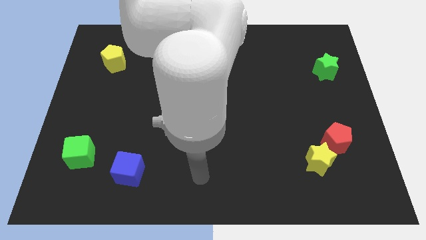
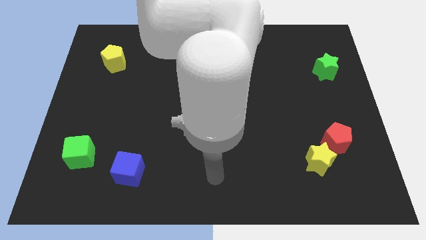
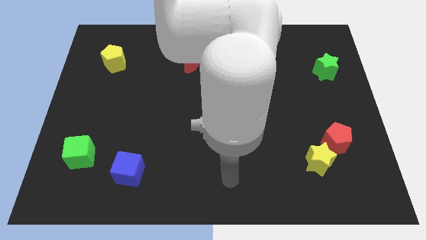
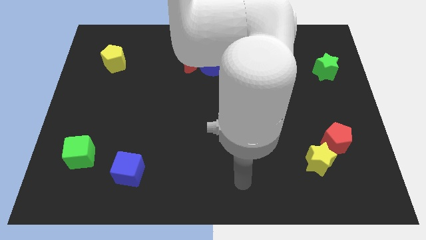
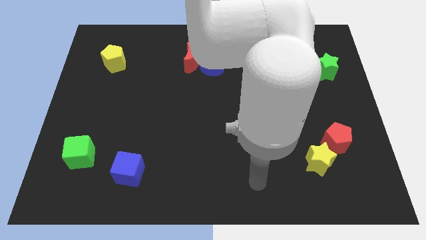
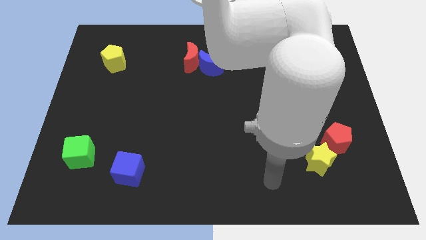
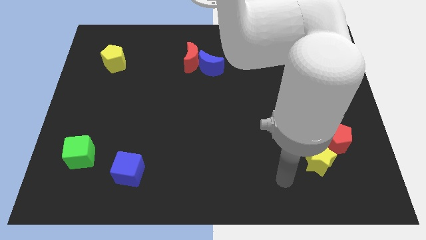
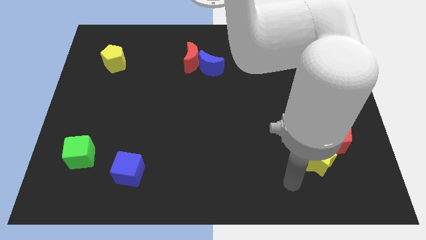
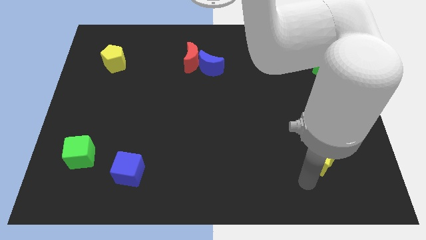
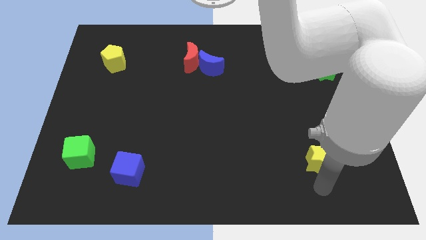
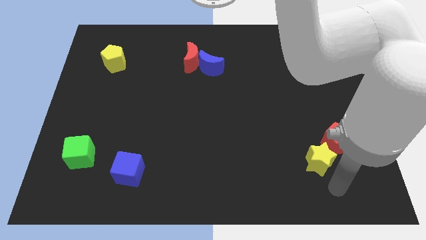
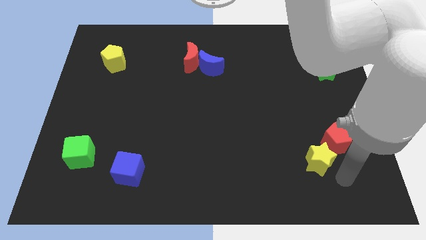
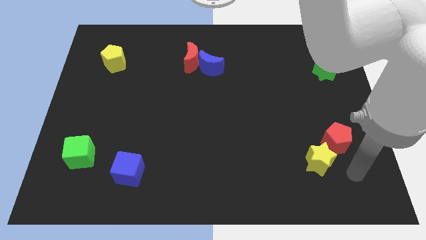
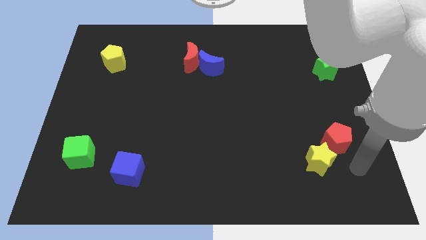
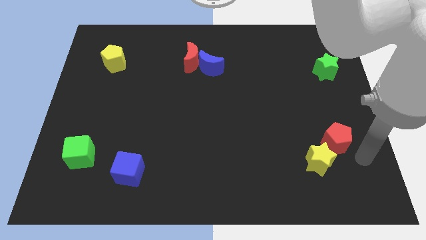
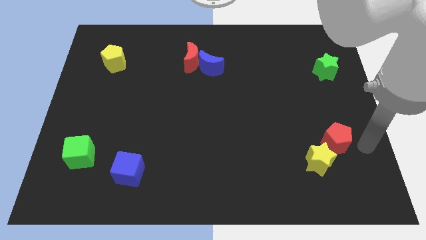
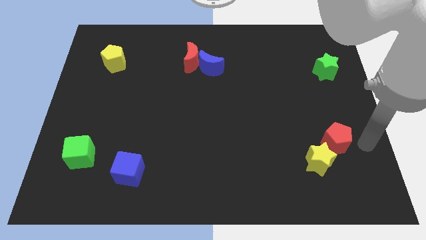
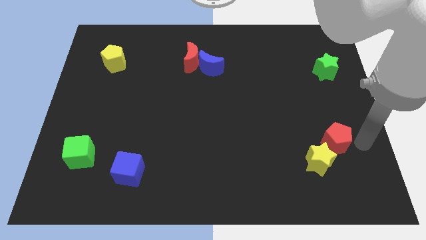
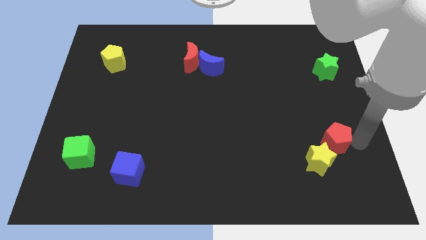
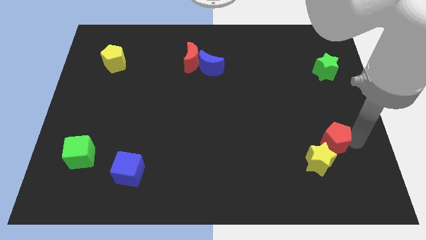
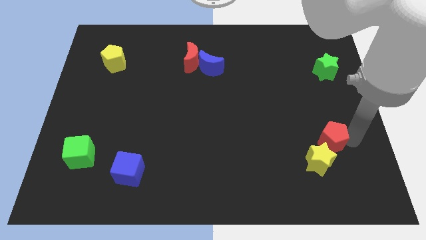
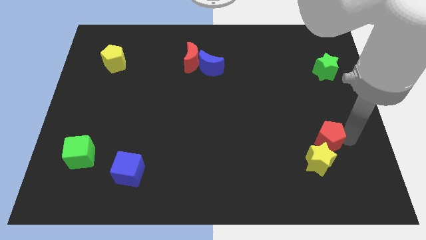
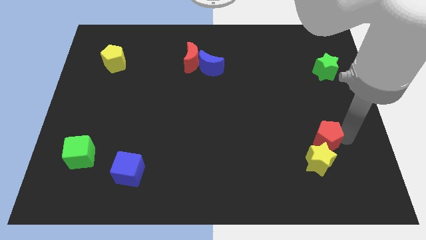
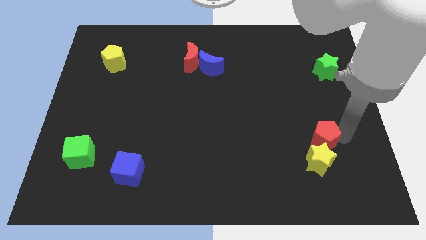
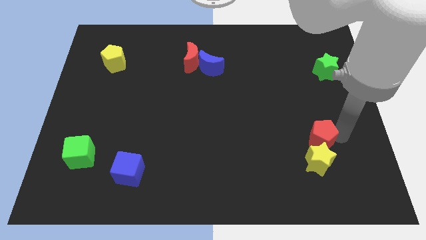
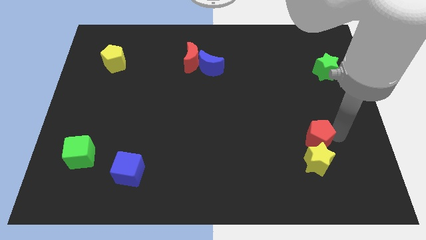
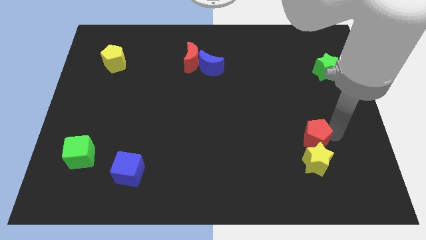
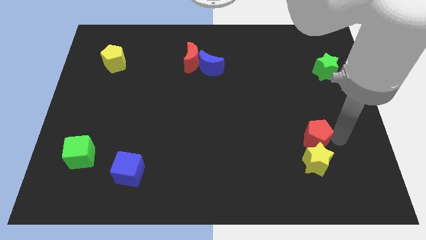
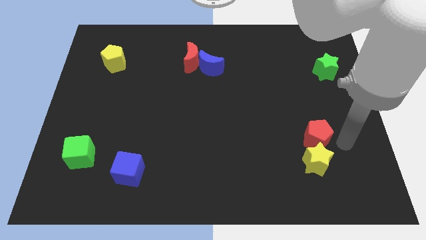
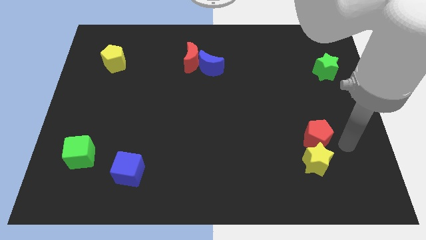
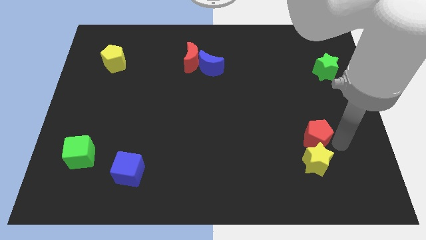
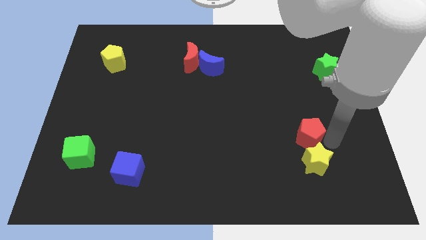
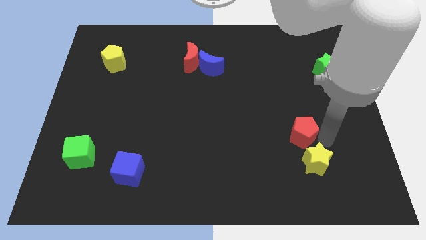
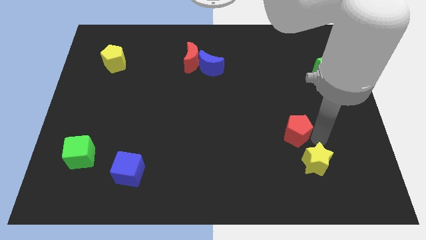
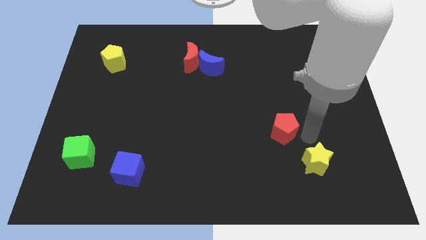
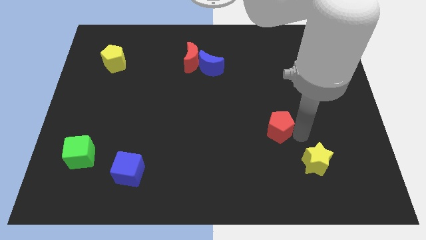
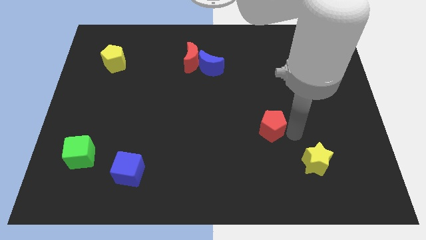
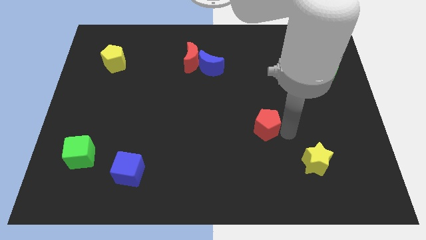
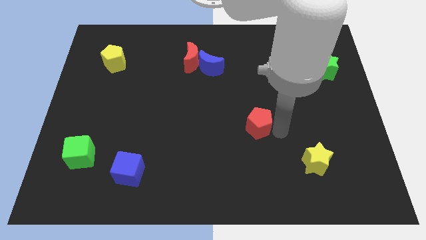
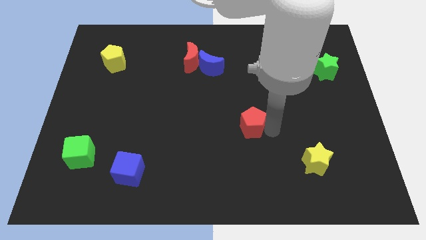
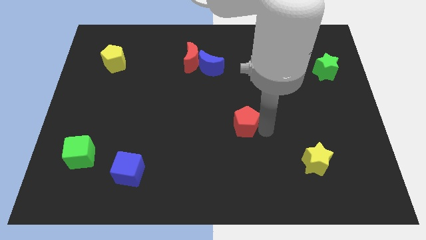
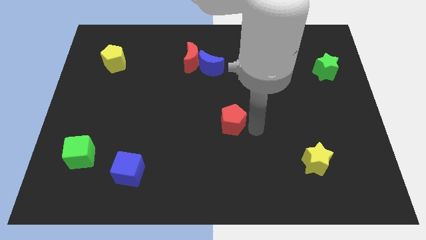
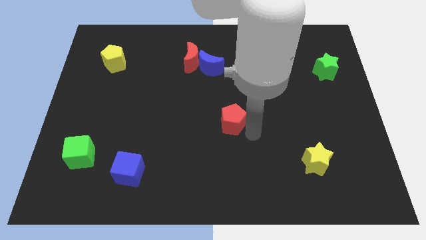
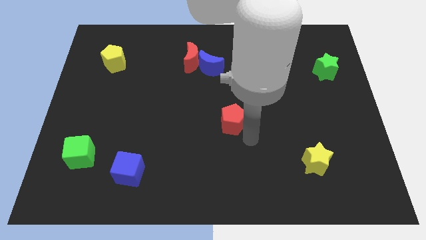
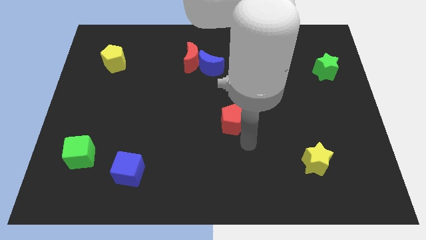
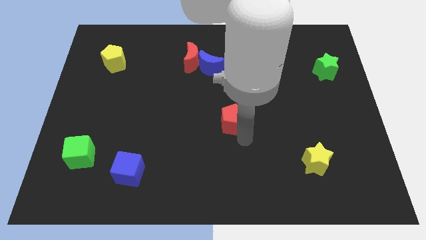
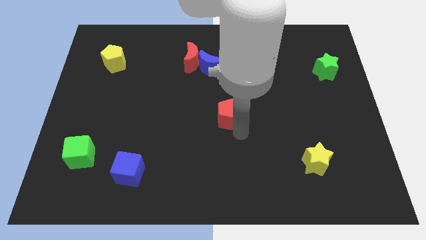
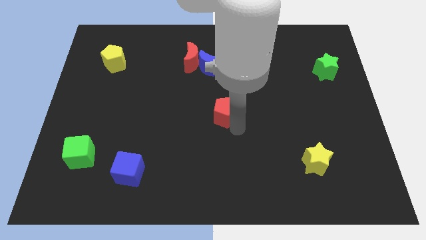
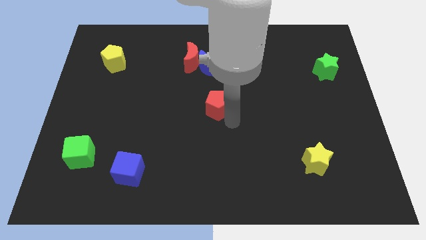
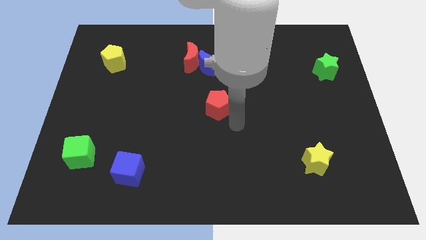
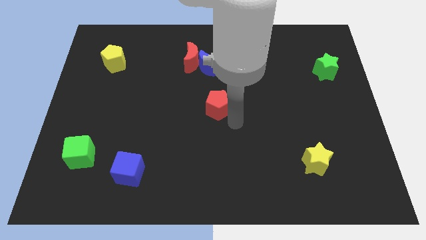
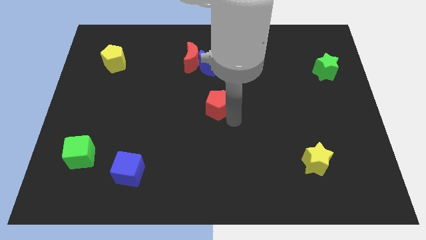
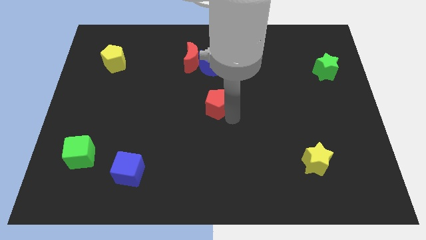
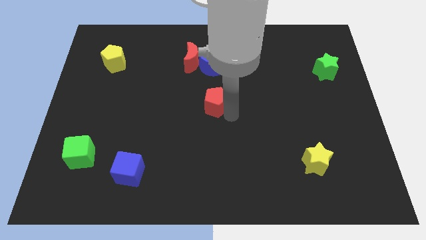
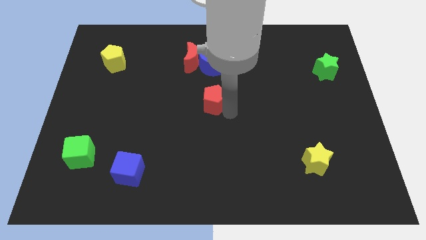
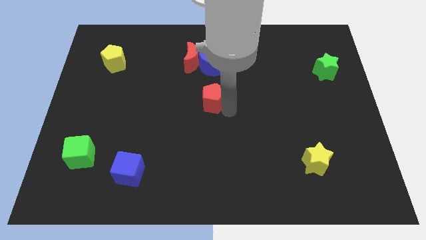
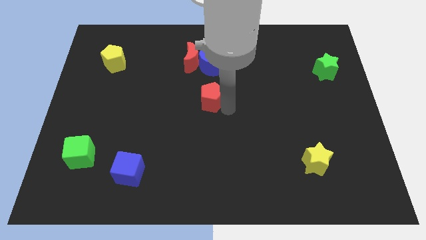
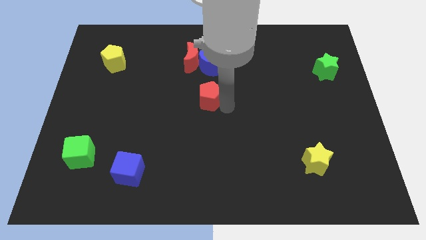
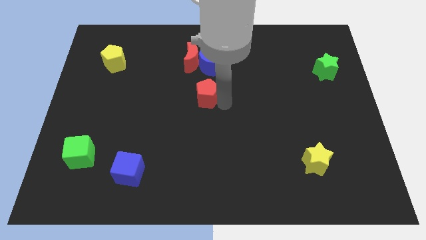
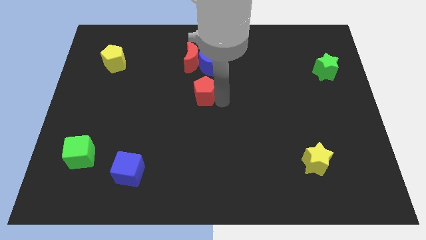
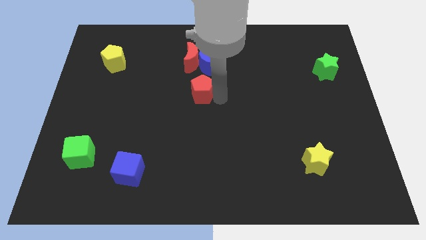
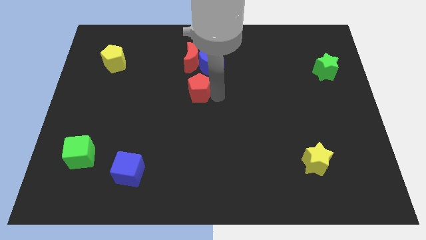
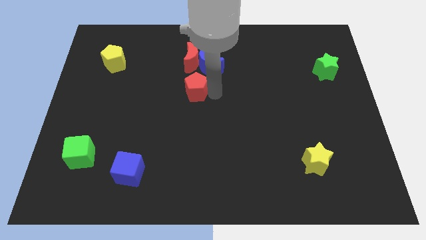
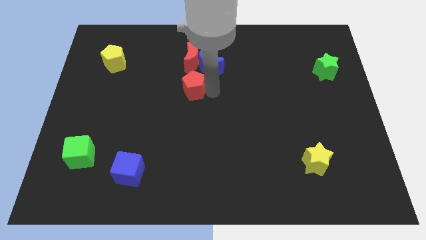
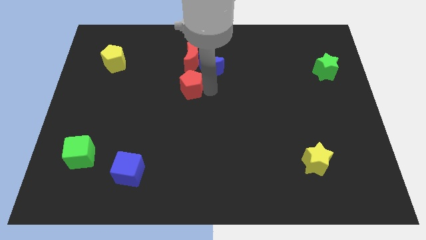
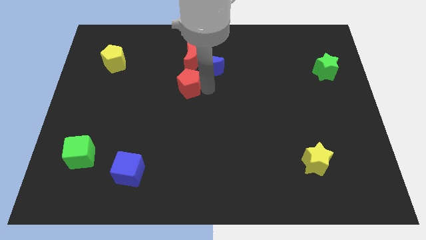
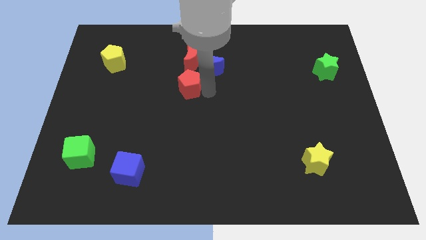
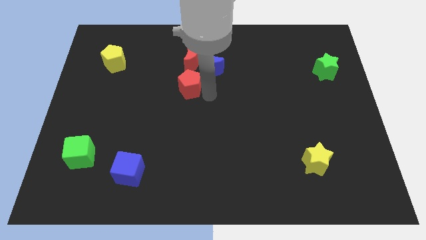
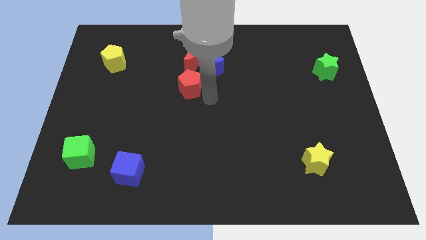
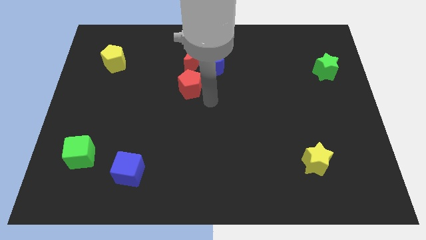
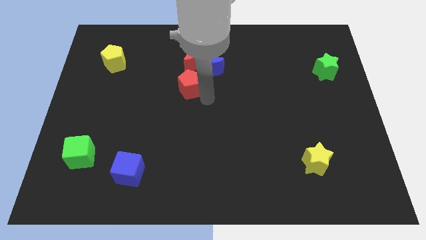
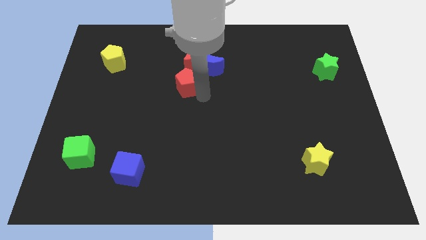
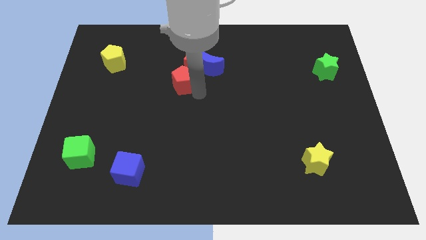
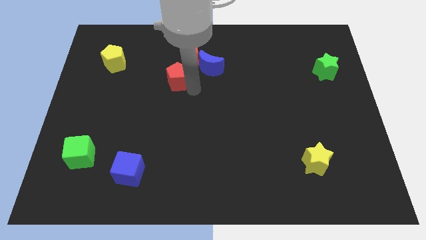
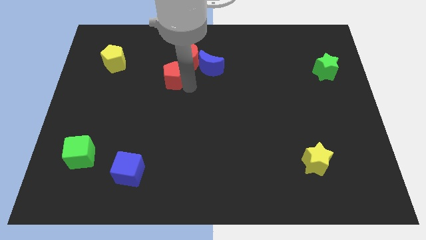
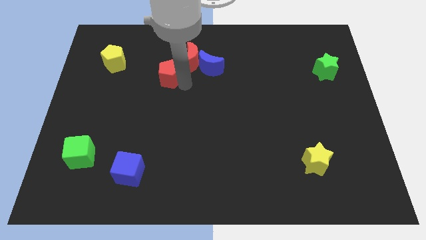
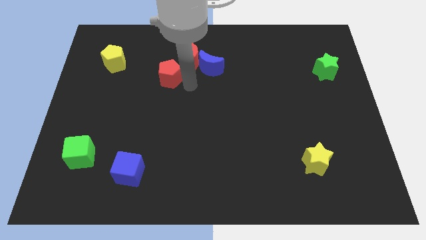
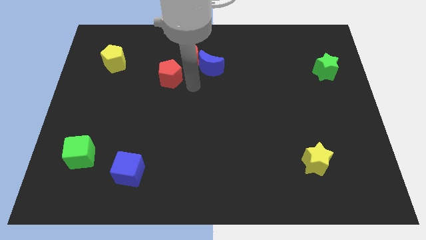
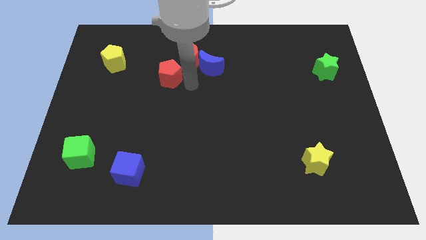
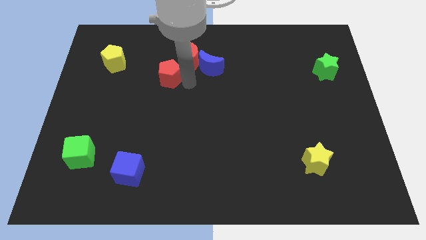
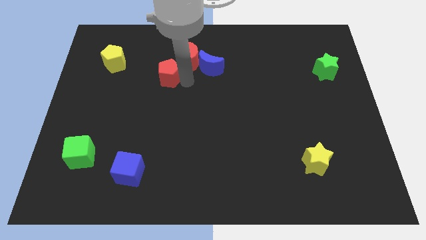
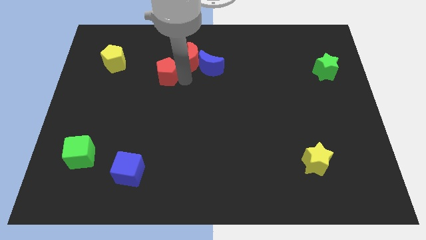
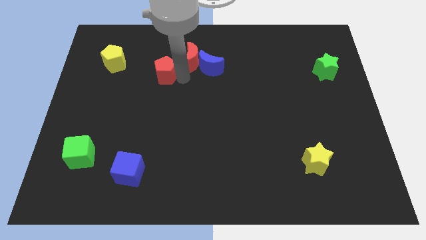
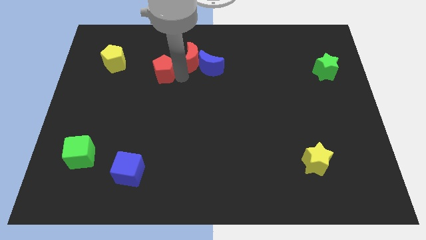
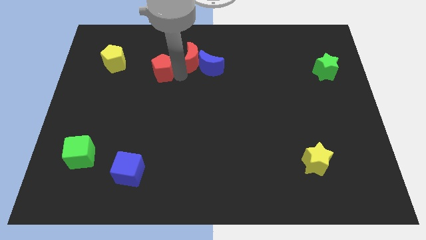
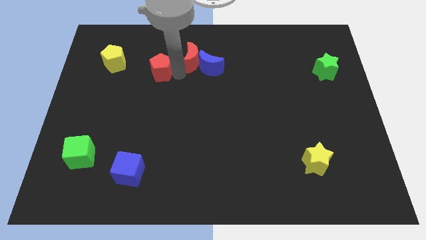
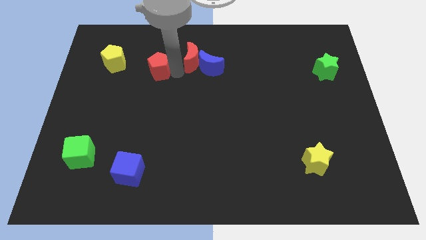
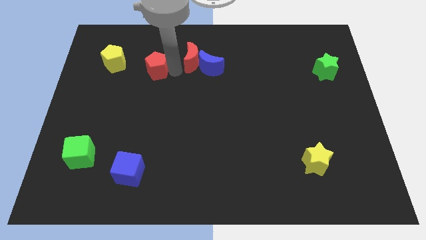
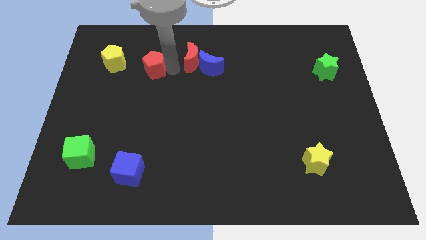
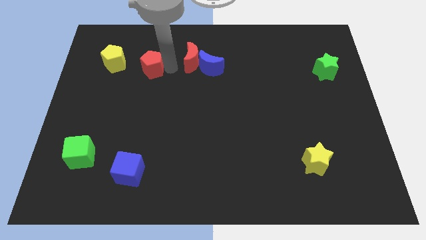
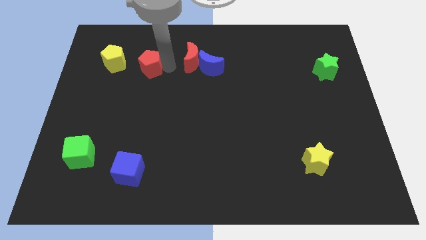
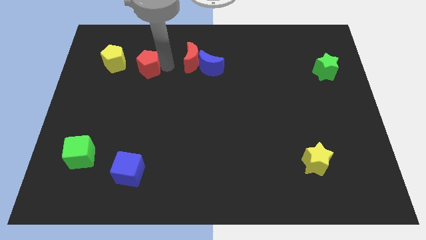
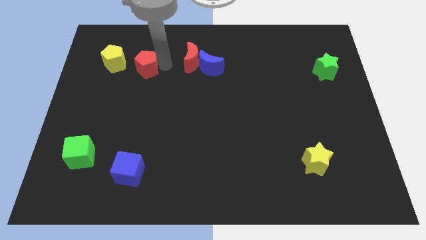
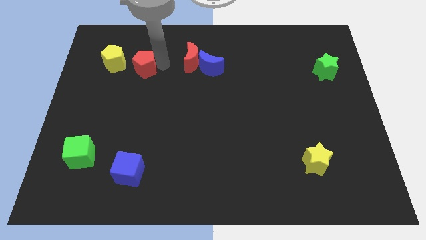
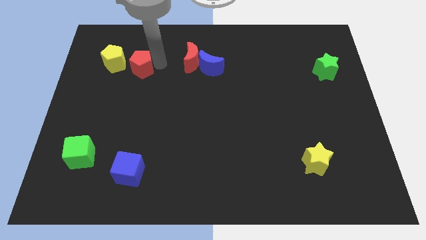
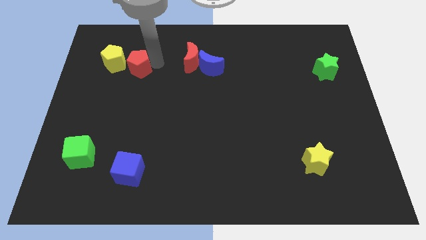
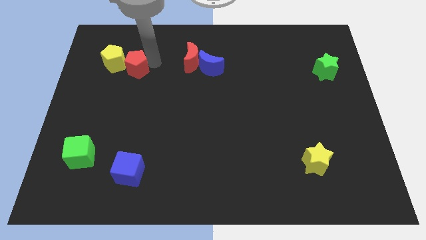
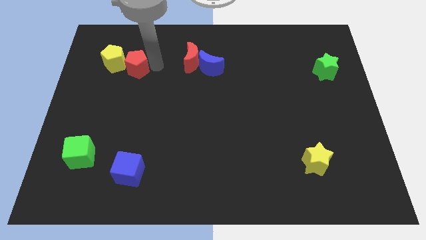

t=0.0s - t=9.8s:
slide the red pentagon next to the yellow pentagon
